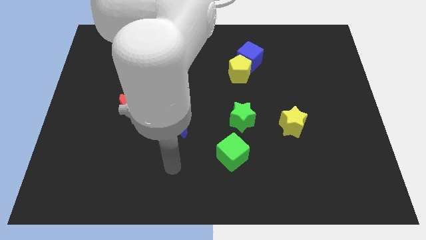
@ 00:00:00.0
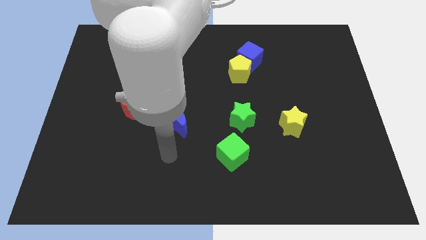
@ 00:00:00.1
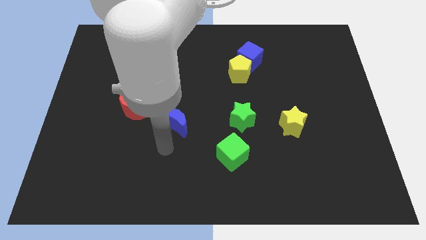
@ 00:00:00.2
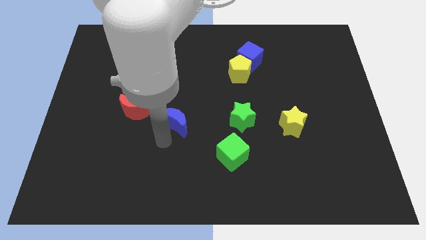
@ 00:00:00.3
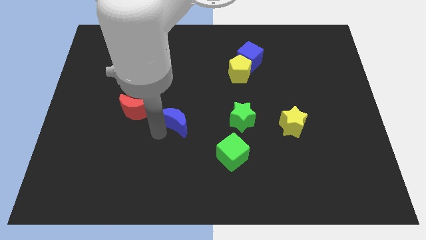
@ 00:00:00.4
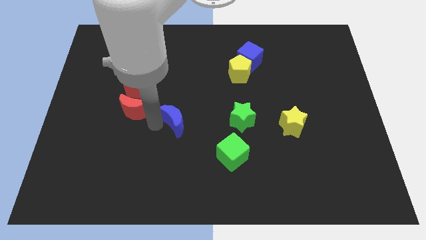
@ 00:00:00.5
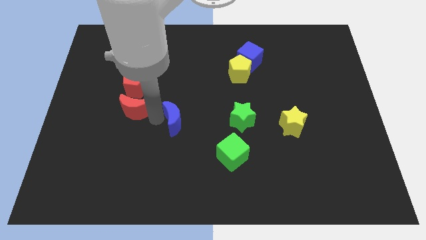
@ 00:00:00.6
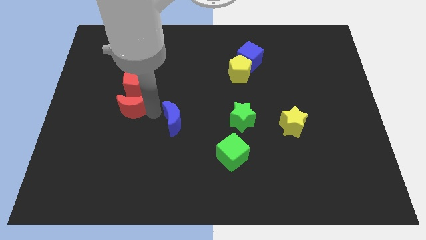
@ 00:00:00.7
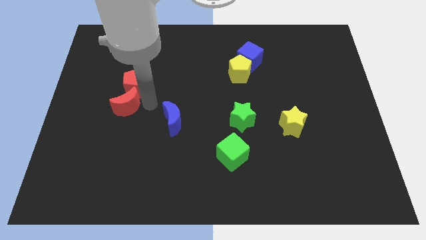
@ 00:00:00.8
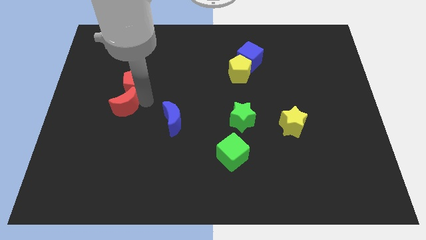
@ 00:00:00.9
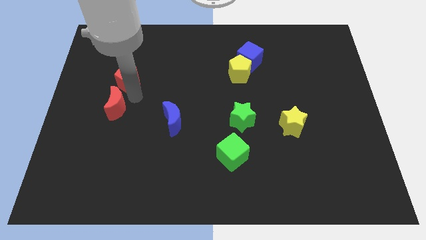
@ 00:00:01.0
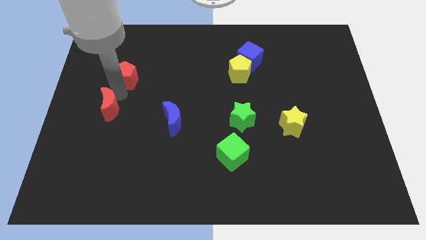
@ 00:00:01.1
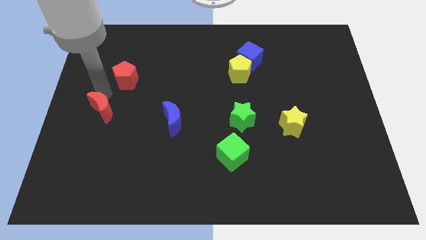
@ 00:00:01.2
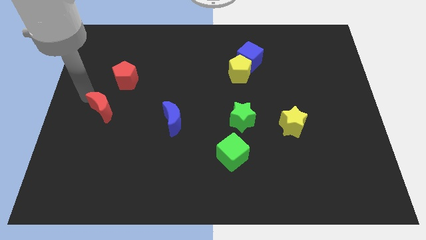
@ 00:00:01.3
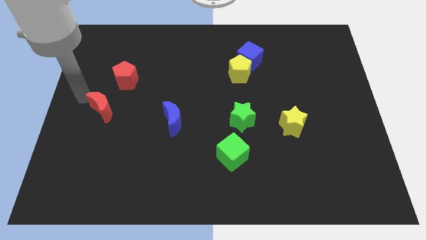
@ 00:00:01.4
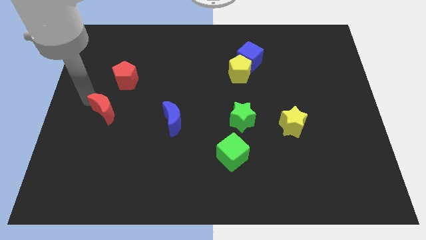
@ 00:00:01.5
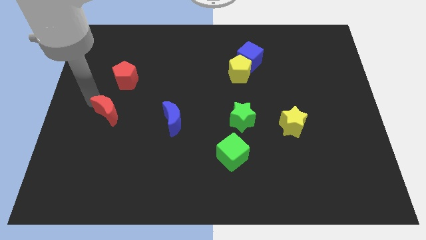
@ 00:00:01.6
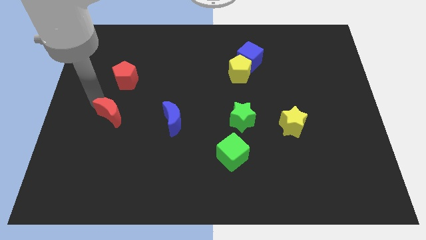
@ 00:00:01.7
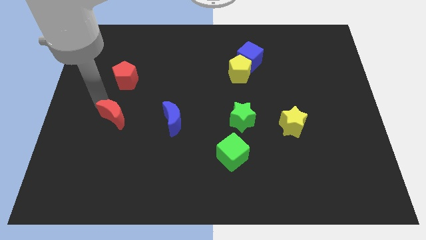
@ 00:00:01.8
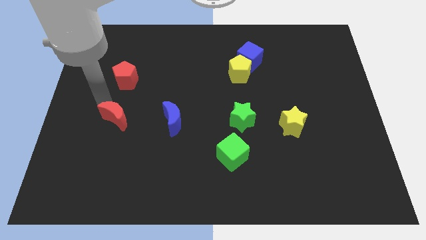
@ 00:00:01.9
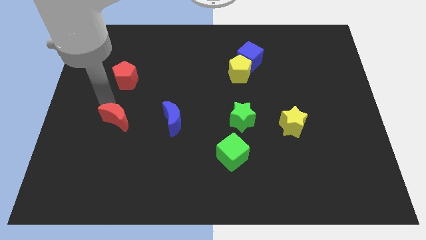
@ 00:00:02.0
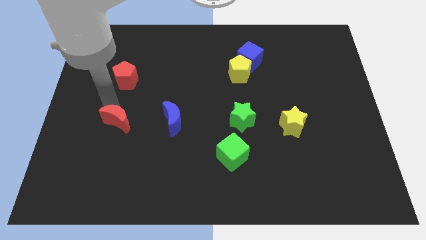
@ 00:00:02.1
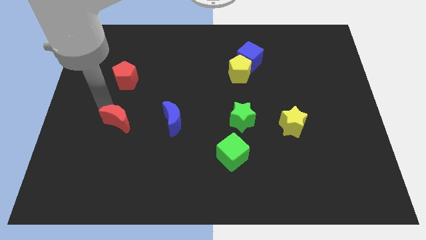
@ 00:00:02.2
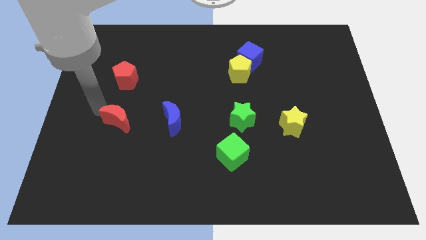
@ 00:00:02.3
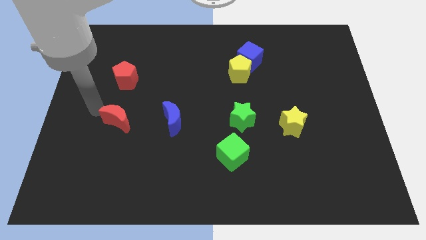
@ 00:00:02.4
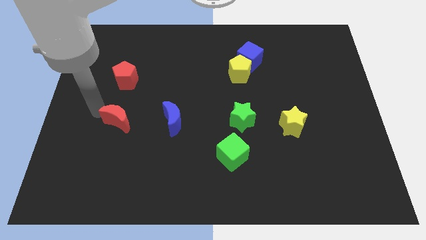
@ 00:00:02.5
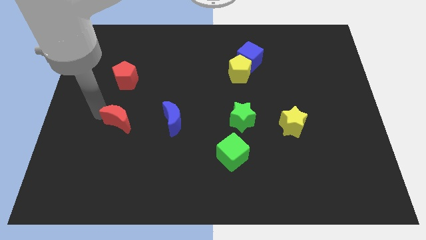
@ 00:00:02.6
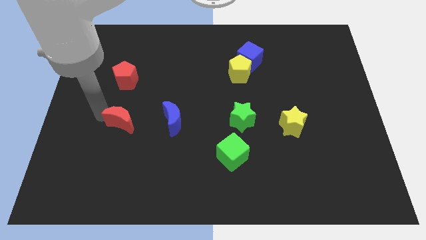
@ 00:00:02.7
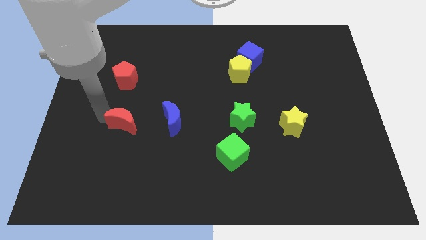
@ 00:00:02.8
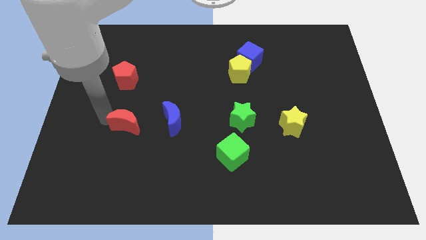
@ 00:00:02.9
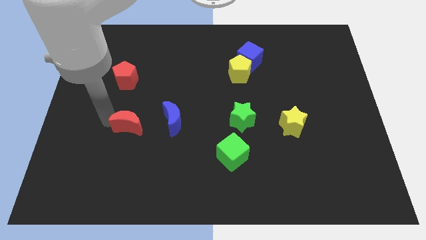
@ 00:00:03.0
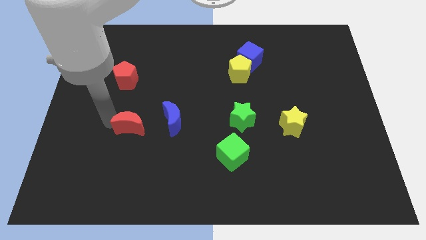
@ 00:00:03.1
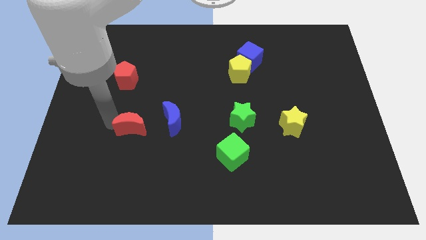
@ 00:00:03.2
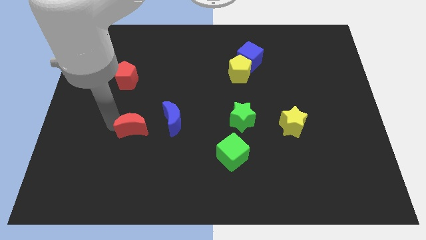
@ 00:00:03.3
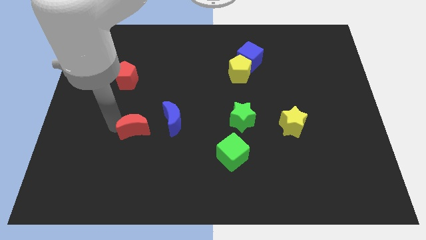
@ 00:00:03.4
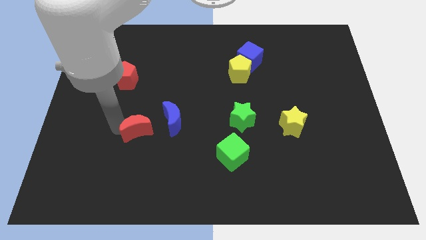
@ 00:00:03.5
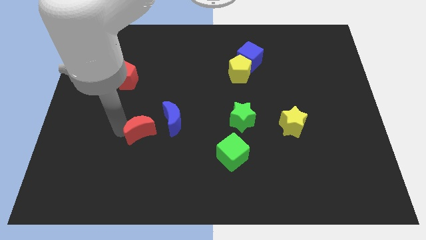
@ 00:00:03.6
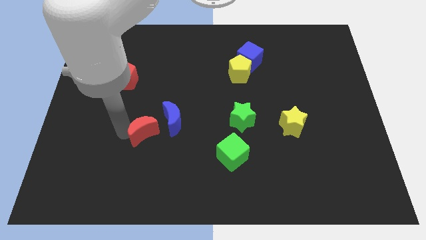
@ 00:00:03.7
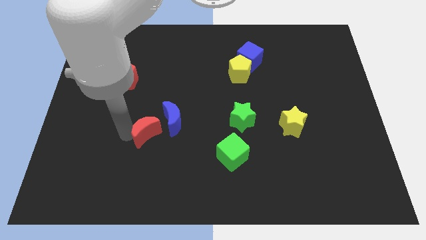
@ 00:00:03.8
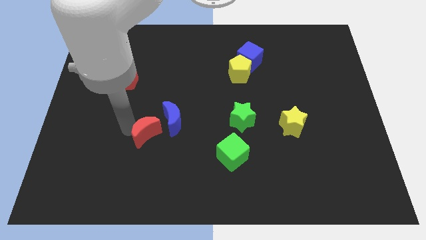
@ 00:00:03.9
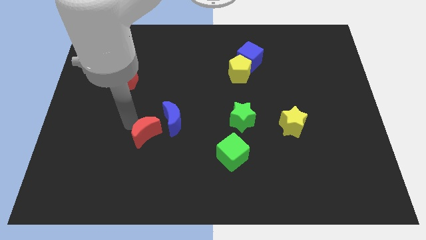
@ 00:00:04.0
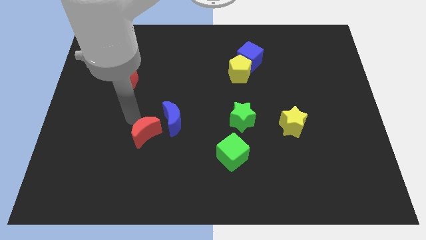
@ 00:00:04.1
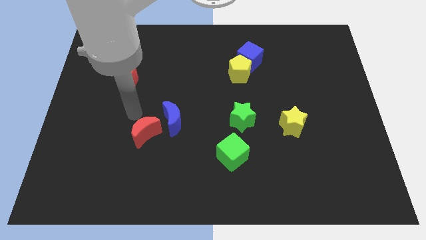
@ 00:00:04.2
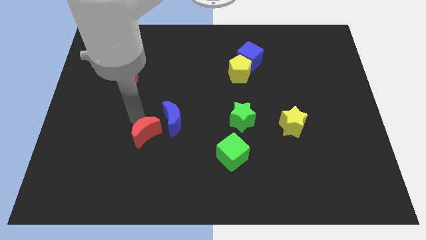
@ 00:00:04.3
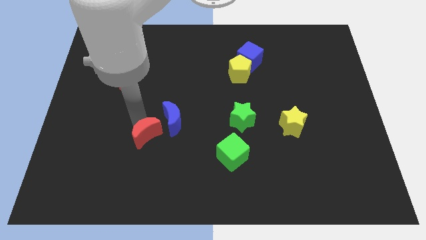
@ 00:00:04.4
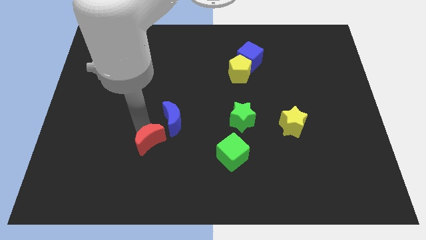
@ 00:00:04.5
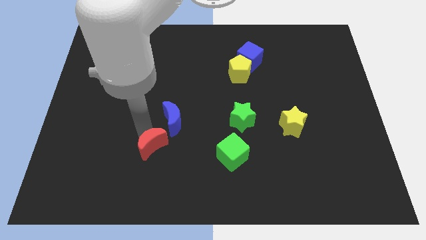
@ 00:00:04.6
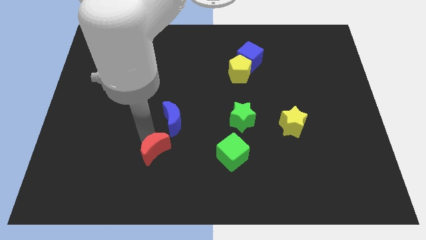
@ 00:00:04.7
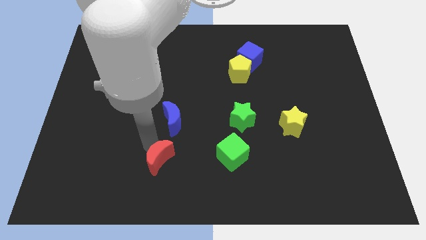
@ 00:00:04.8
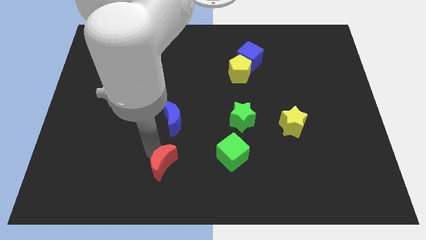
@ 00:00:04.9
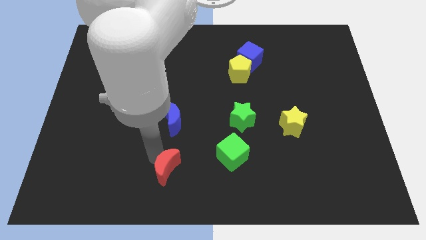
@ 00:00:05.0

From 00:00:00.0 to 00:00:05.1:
put the red moon to the bottom side

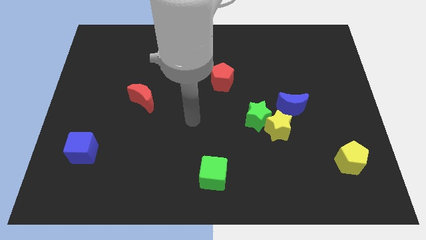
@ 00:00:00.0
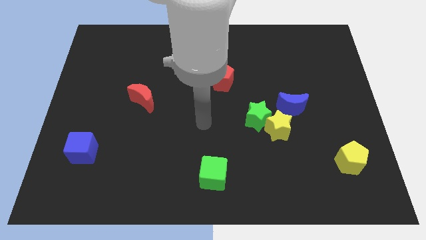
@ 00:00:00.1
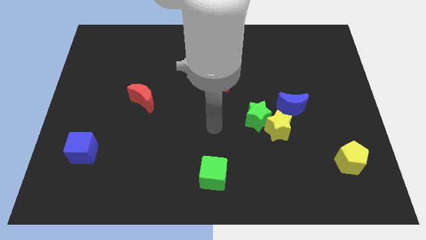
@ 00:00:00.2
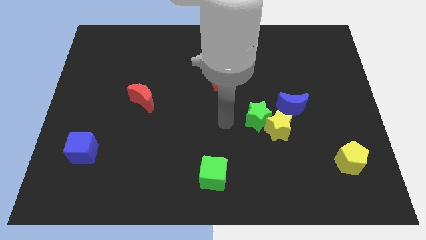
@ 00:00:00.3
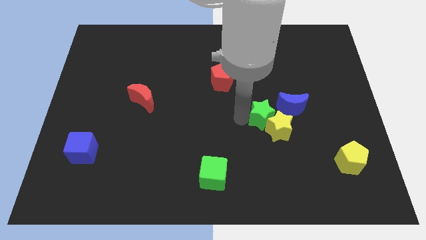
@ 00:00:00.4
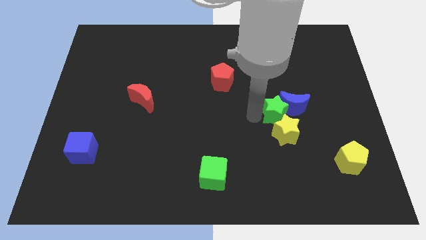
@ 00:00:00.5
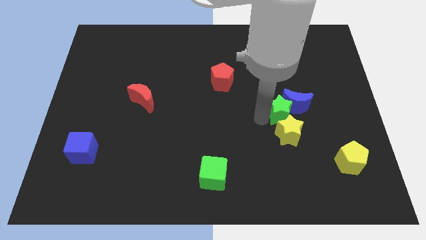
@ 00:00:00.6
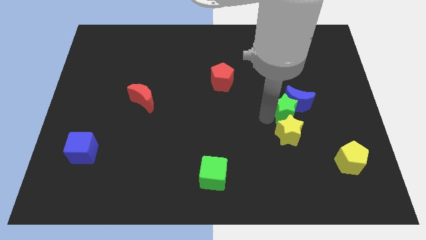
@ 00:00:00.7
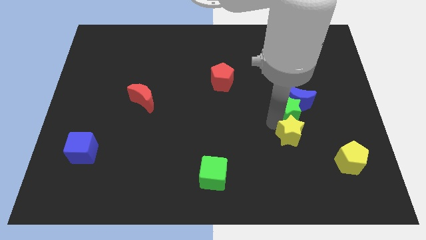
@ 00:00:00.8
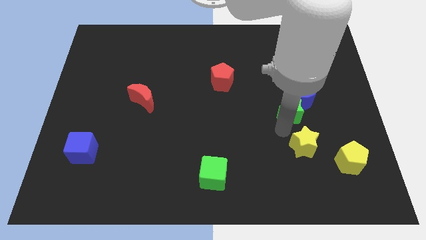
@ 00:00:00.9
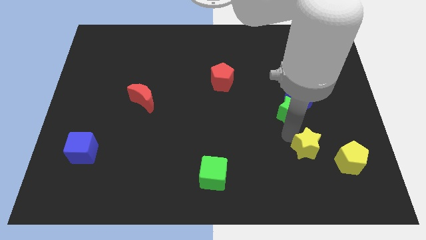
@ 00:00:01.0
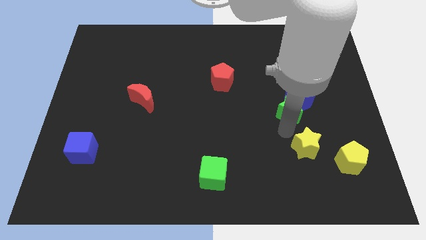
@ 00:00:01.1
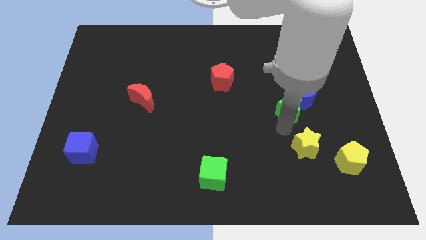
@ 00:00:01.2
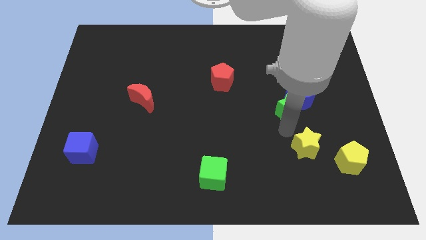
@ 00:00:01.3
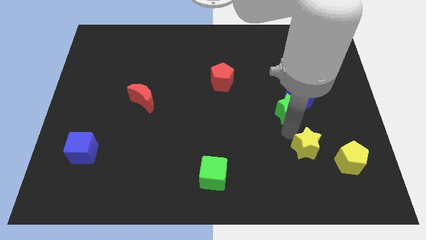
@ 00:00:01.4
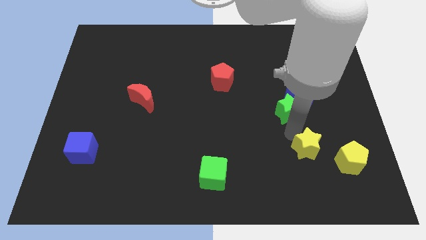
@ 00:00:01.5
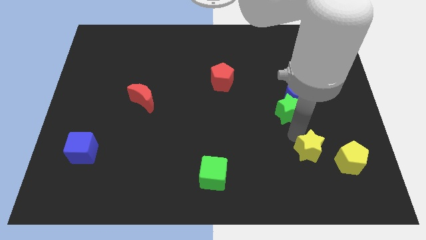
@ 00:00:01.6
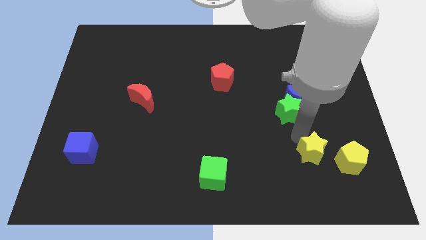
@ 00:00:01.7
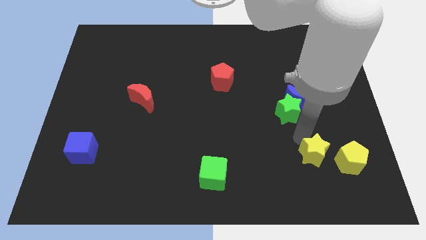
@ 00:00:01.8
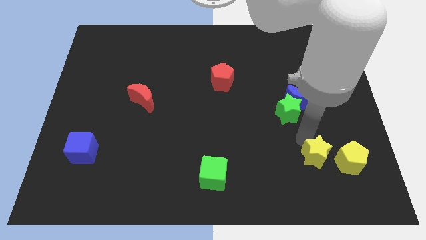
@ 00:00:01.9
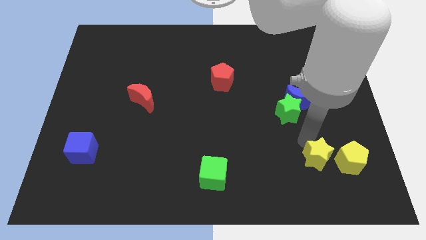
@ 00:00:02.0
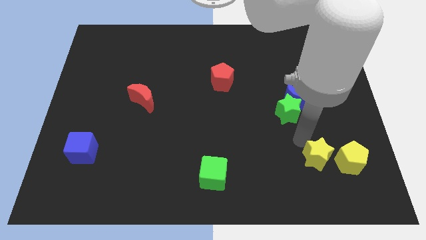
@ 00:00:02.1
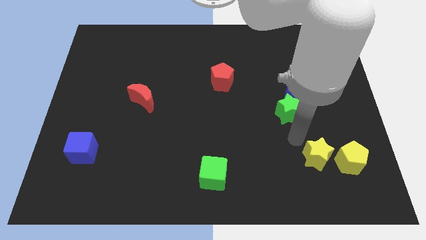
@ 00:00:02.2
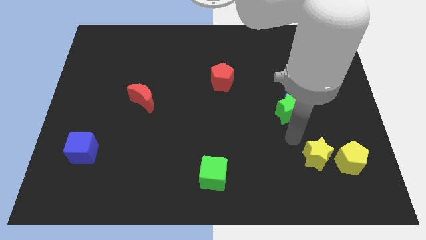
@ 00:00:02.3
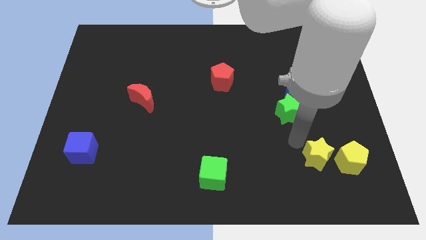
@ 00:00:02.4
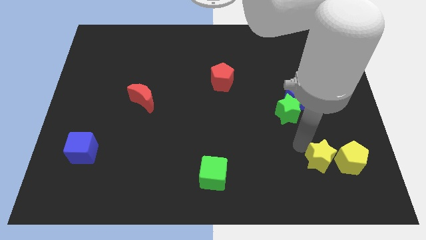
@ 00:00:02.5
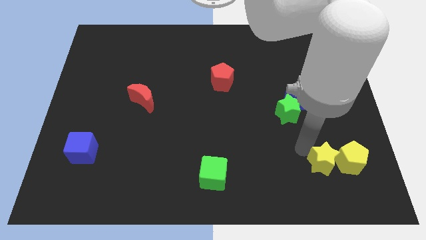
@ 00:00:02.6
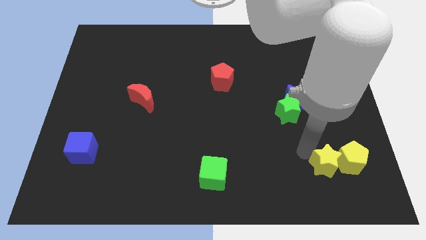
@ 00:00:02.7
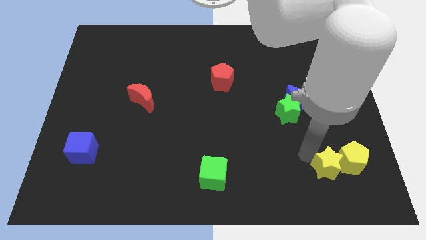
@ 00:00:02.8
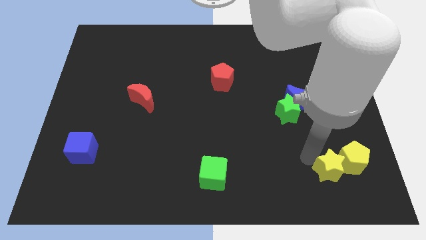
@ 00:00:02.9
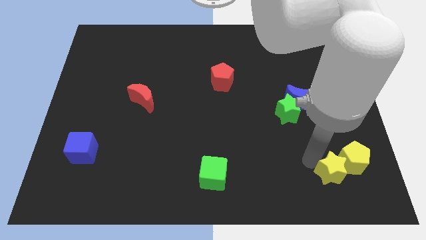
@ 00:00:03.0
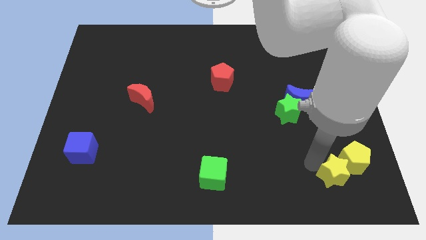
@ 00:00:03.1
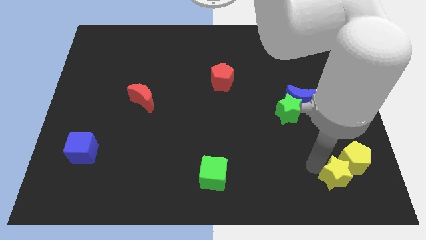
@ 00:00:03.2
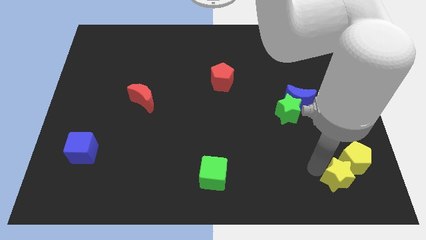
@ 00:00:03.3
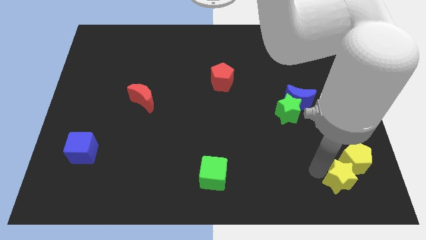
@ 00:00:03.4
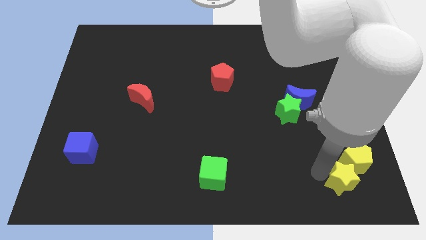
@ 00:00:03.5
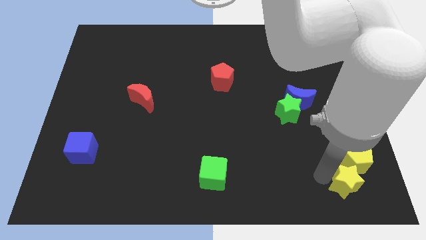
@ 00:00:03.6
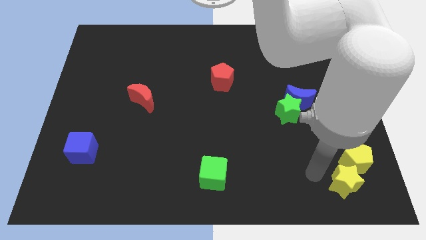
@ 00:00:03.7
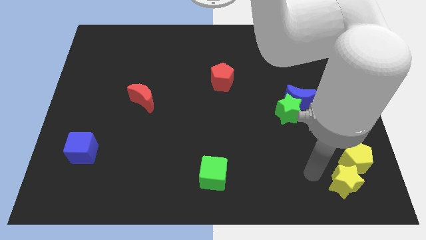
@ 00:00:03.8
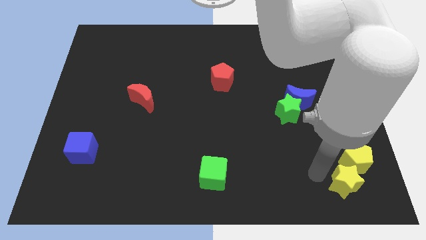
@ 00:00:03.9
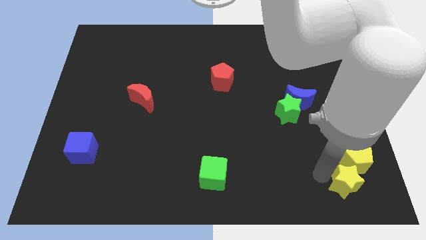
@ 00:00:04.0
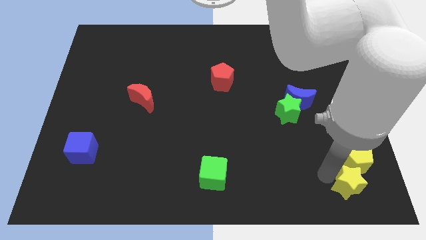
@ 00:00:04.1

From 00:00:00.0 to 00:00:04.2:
slide the yellow star to the bottom right corner
